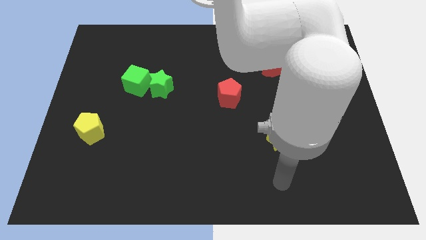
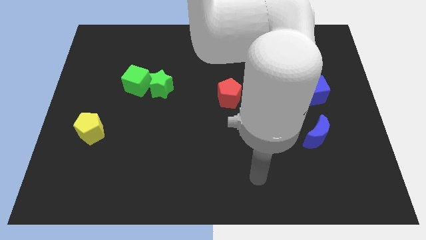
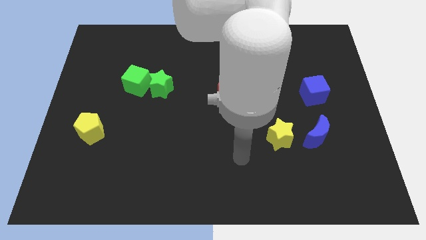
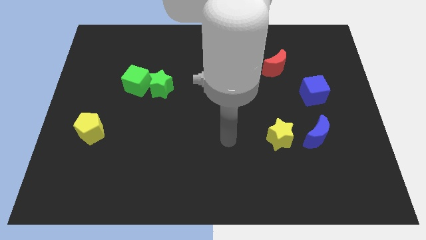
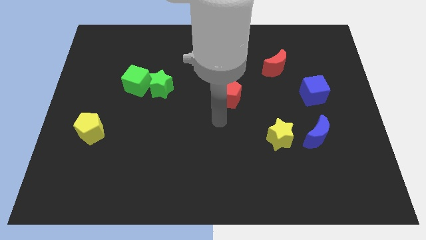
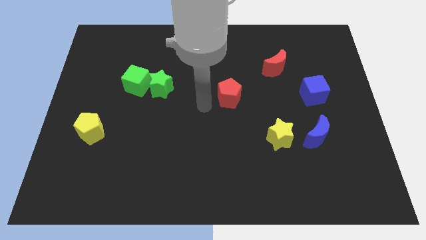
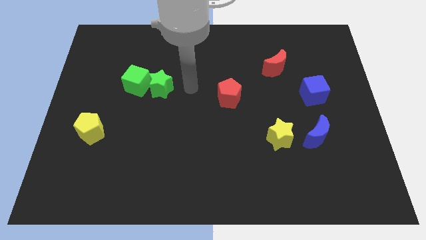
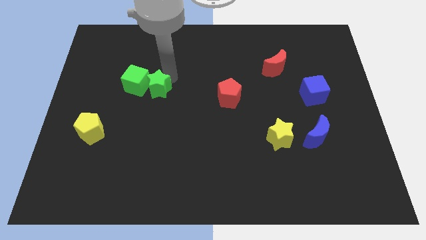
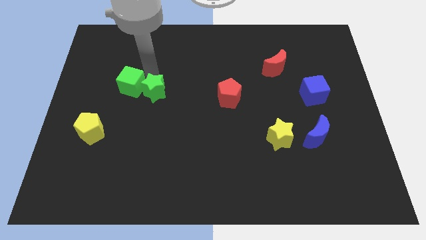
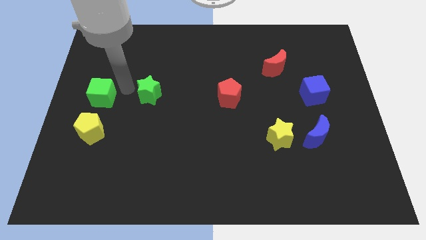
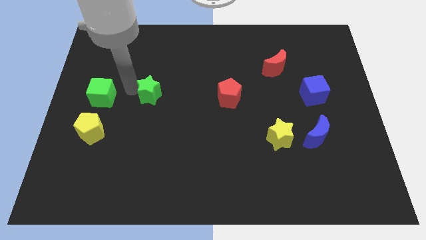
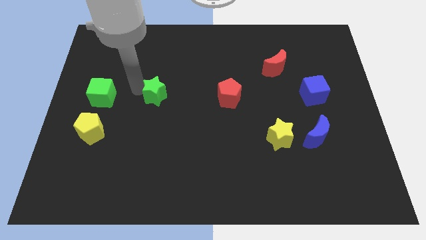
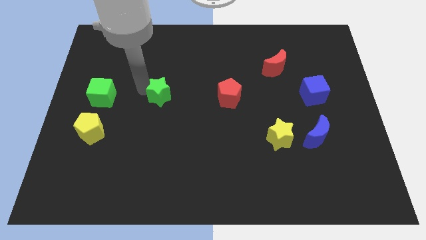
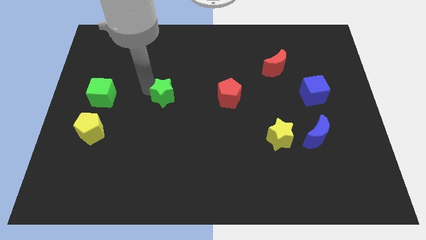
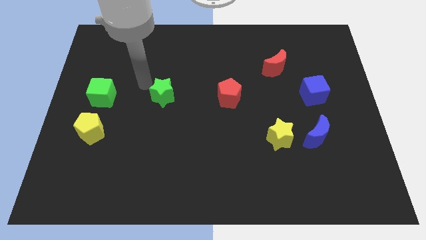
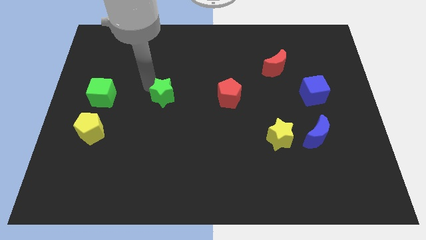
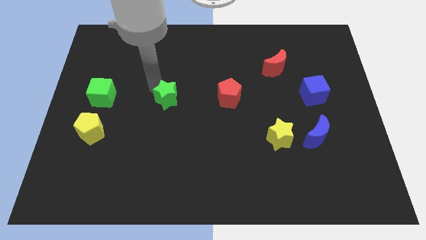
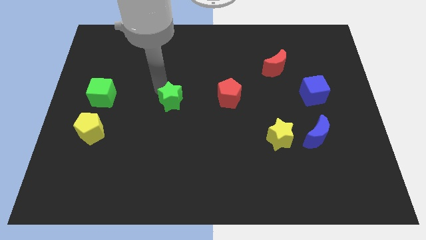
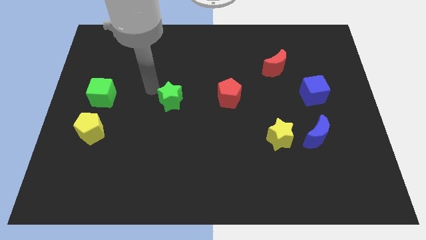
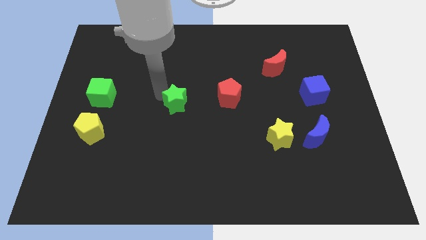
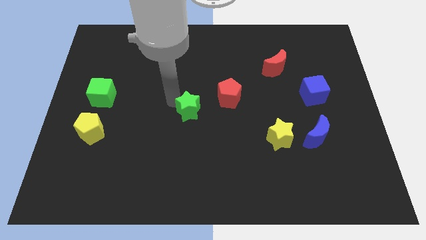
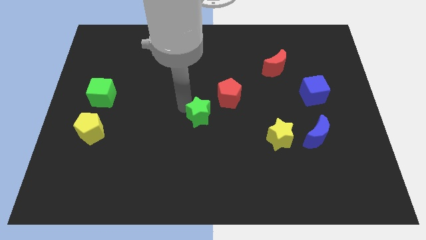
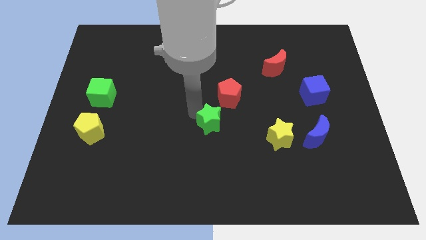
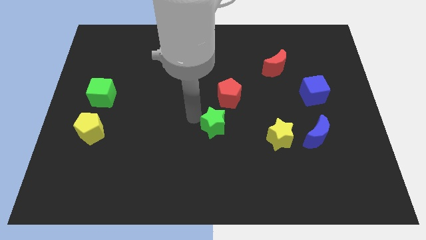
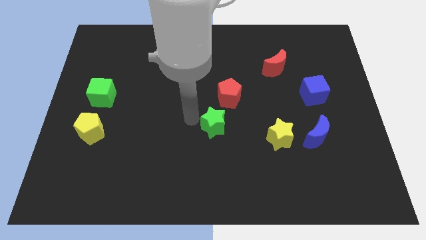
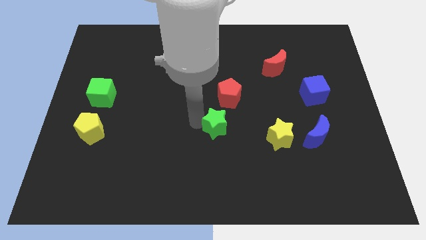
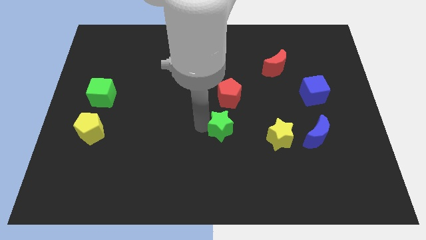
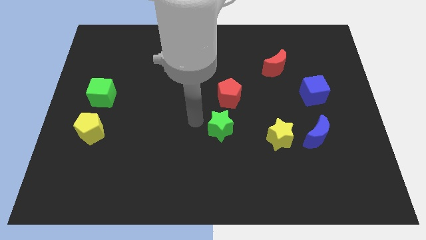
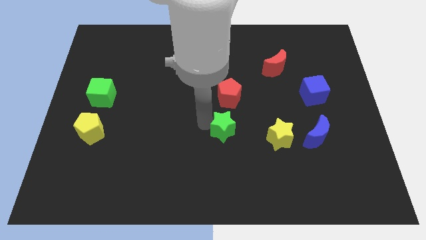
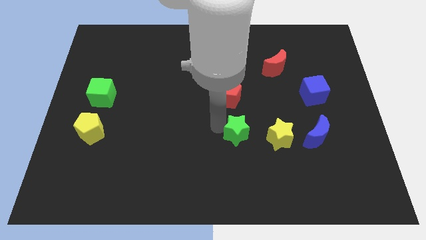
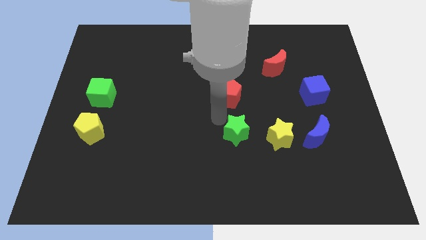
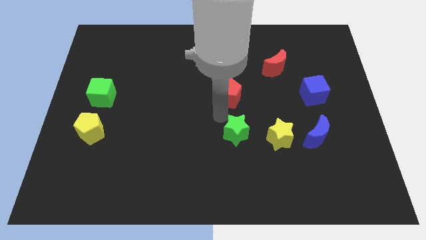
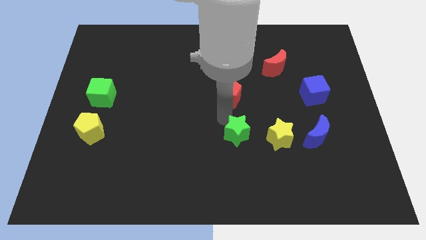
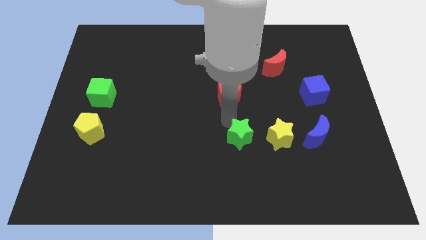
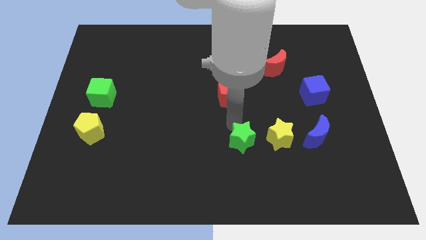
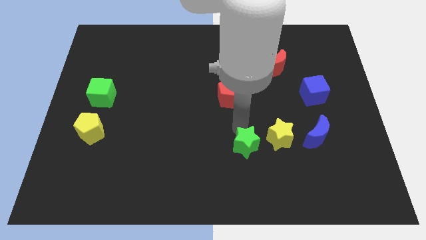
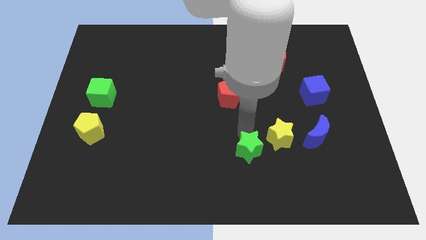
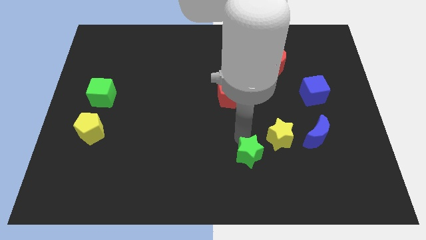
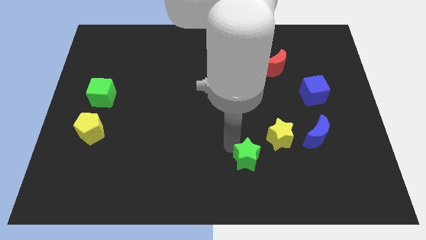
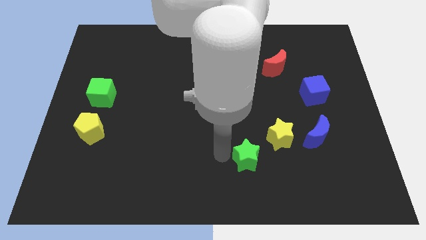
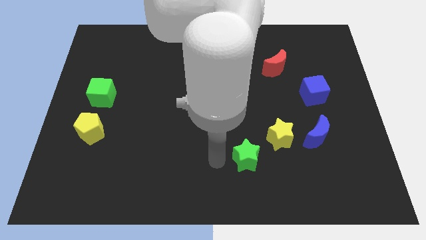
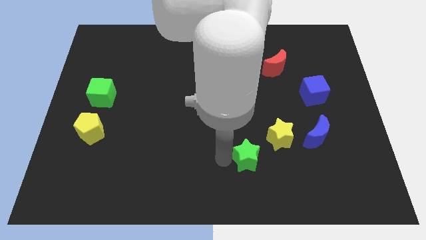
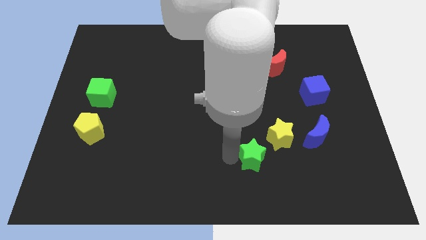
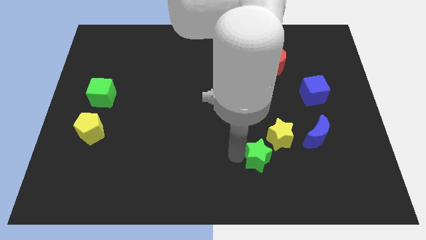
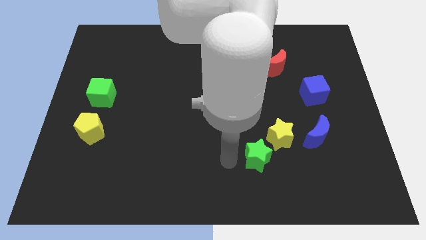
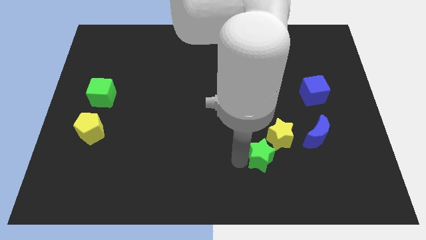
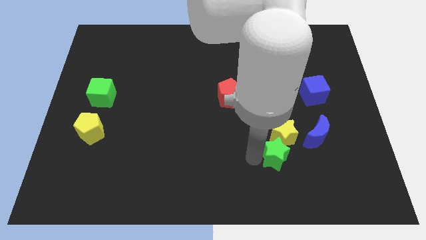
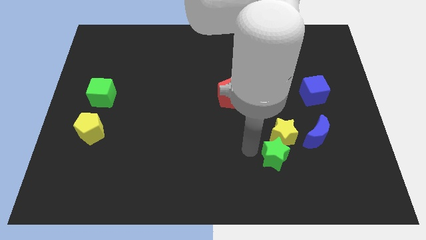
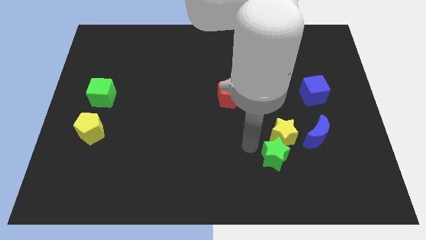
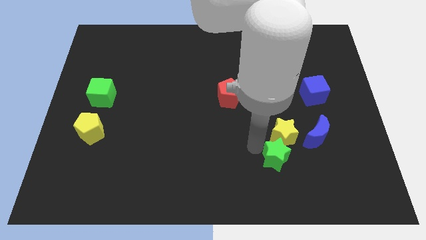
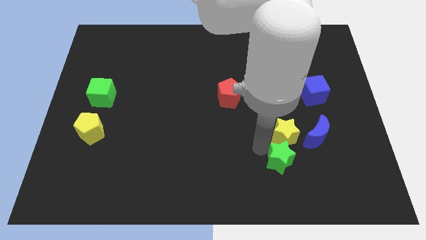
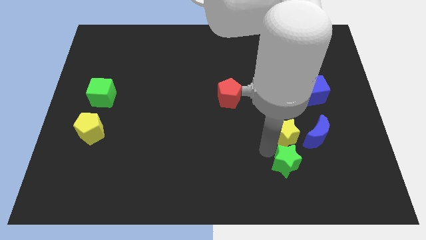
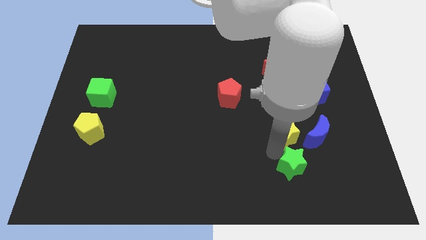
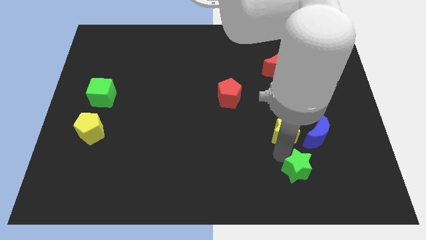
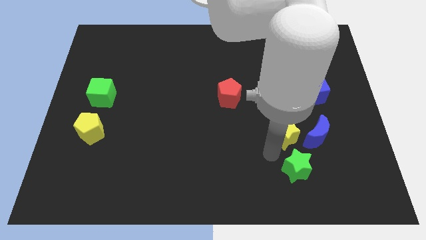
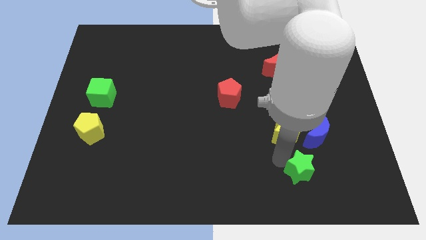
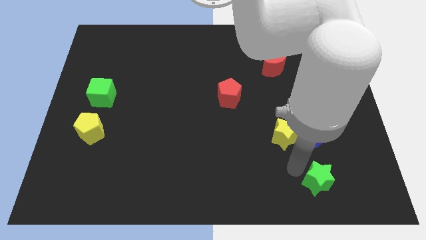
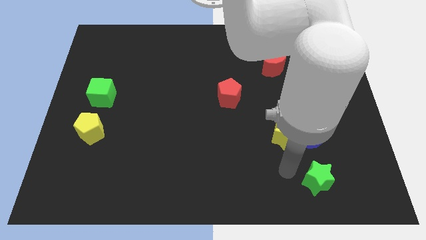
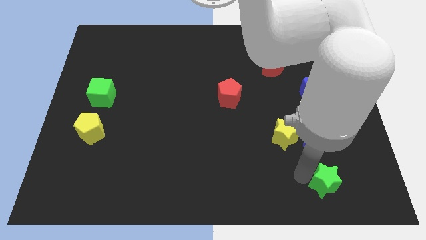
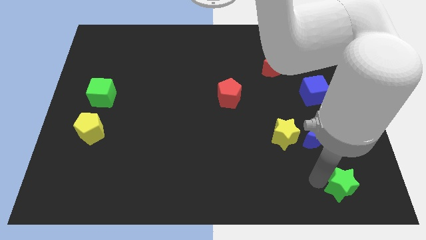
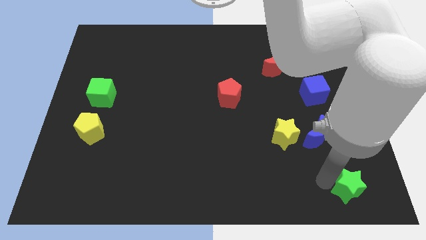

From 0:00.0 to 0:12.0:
push the green star to the bottom right of the board

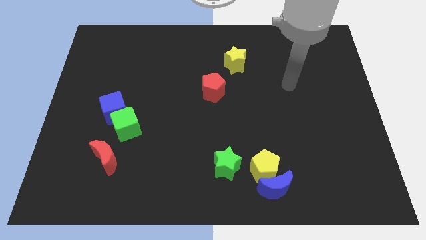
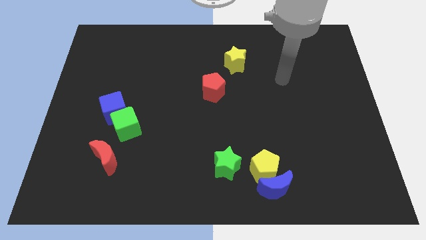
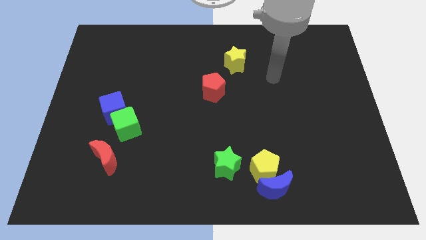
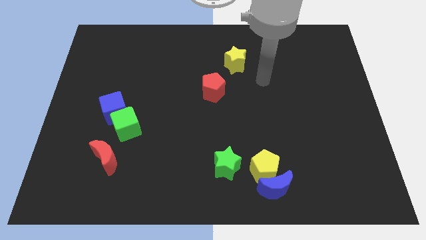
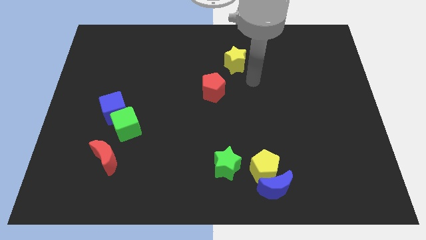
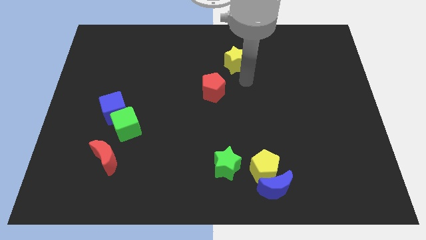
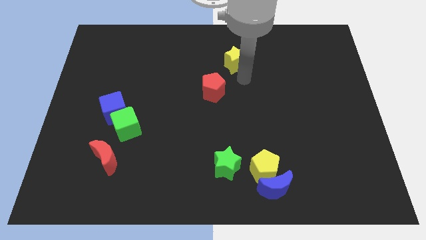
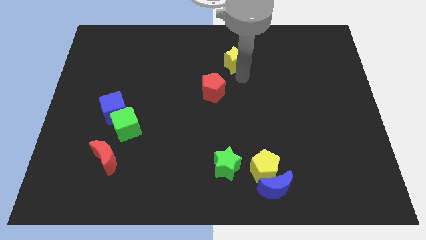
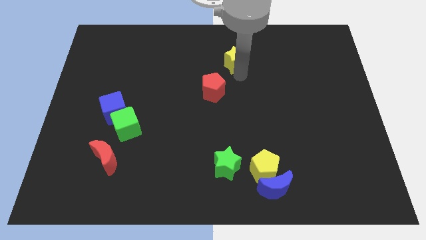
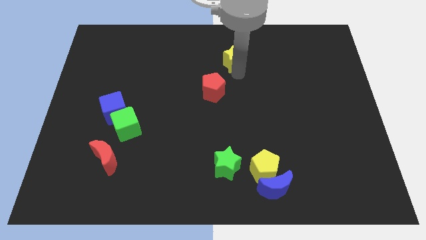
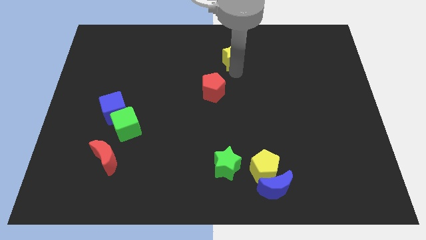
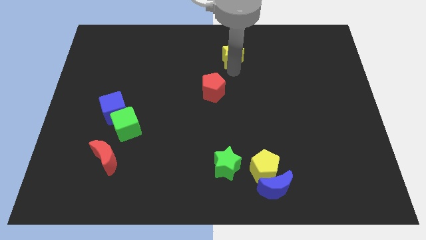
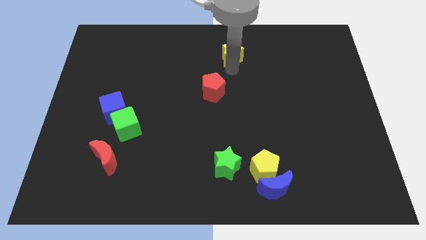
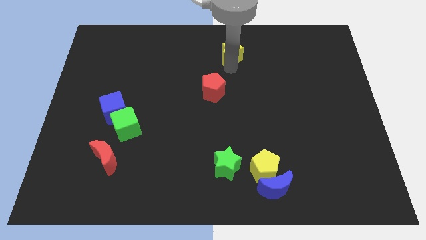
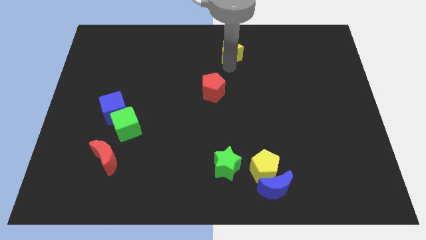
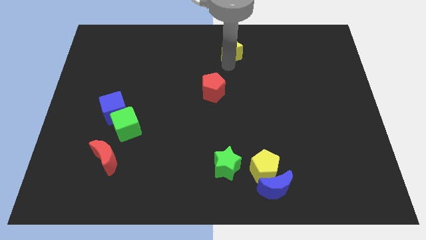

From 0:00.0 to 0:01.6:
move the yellow star to the towards your base
